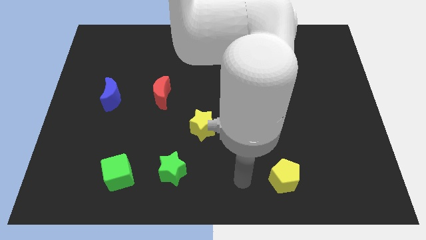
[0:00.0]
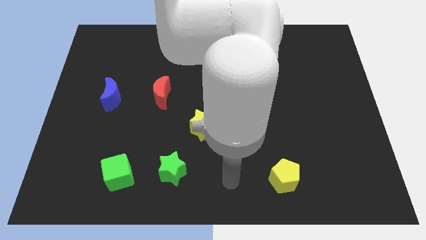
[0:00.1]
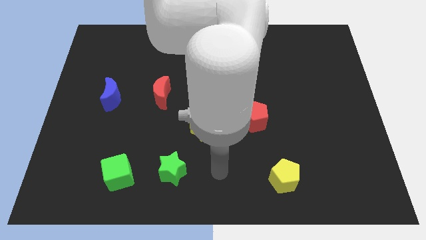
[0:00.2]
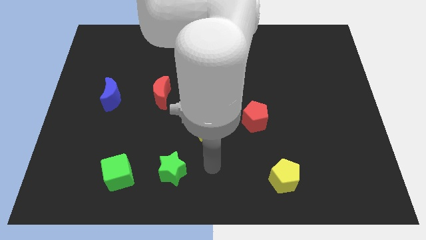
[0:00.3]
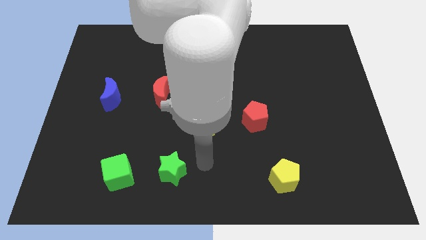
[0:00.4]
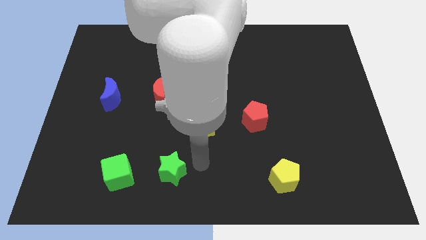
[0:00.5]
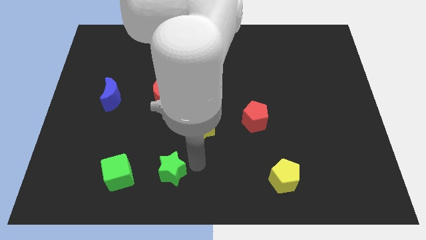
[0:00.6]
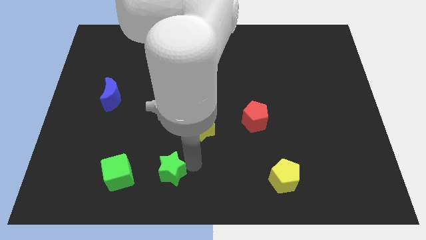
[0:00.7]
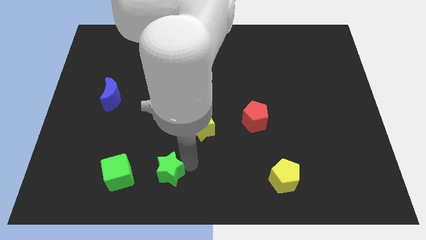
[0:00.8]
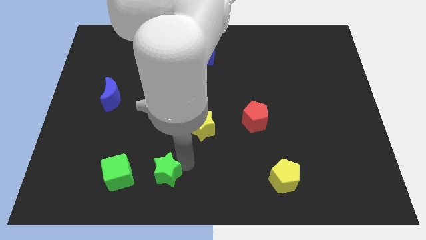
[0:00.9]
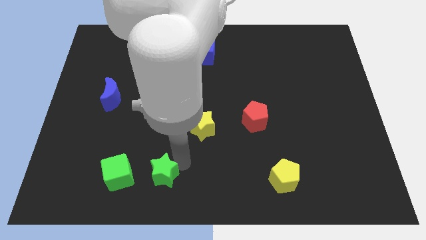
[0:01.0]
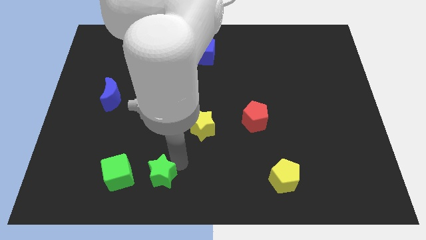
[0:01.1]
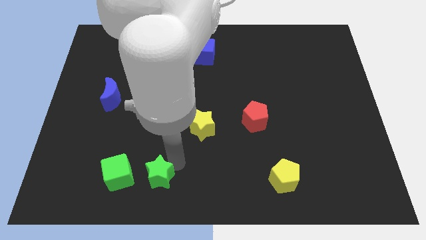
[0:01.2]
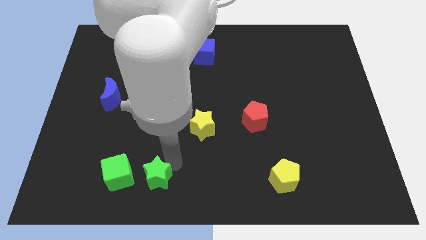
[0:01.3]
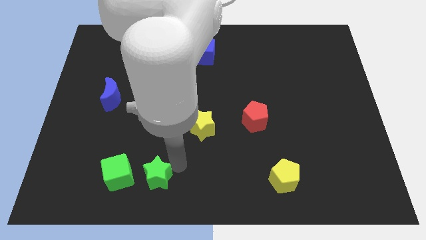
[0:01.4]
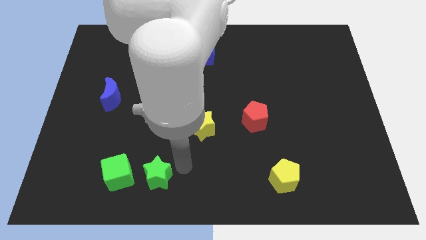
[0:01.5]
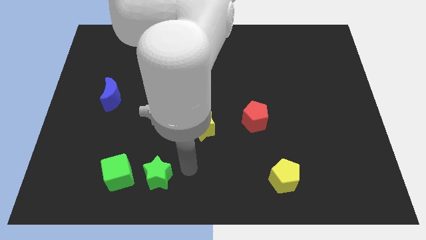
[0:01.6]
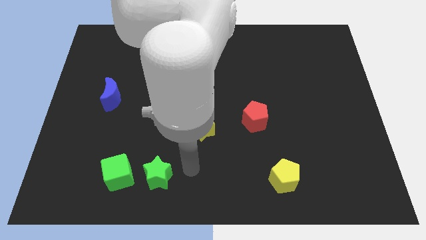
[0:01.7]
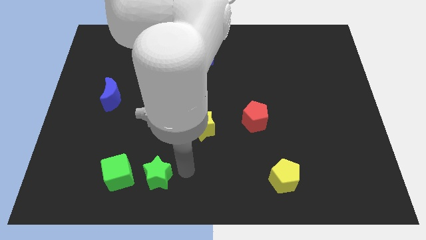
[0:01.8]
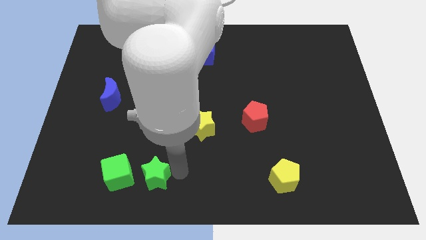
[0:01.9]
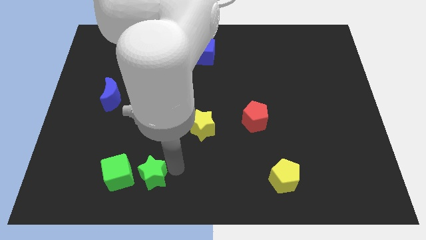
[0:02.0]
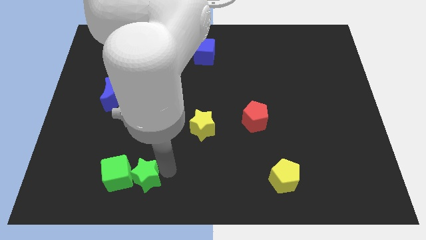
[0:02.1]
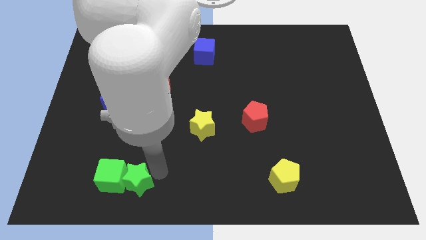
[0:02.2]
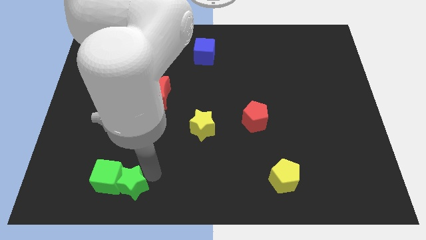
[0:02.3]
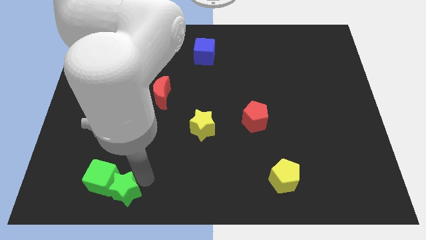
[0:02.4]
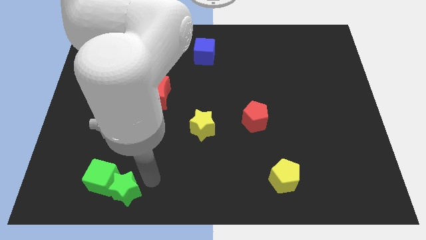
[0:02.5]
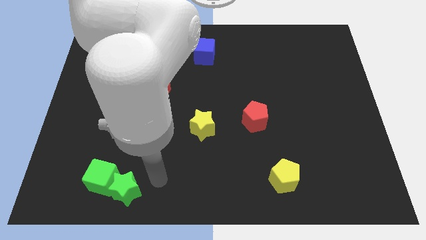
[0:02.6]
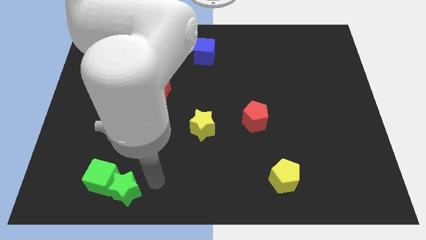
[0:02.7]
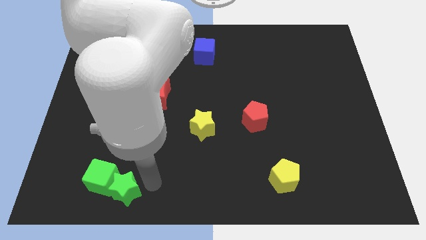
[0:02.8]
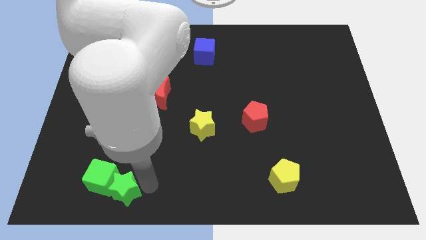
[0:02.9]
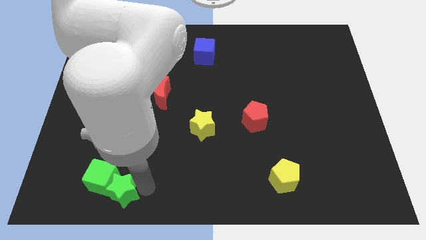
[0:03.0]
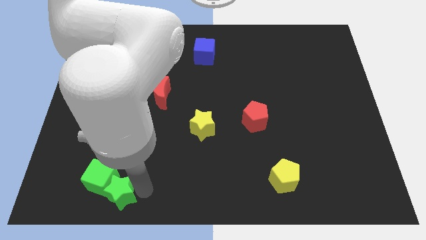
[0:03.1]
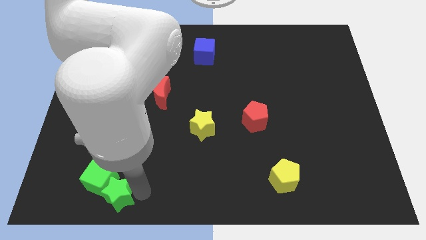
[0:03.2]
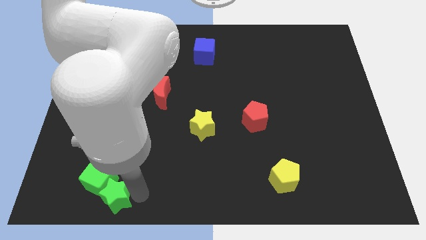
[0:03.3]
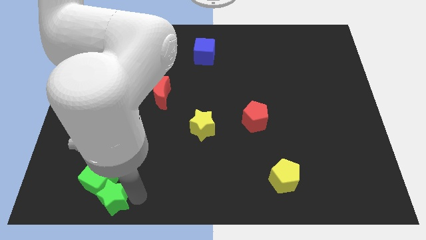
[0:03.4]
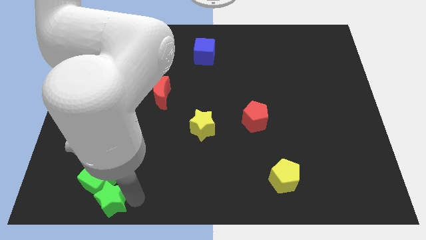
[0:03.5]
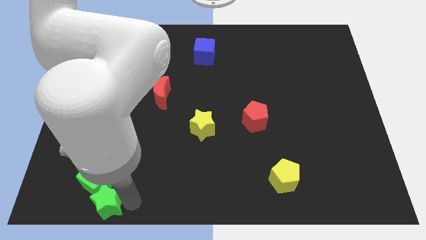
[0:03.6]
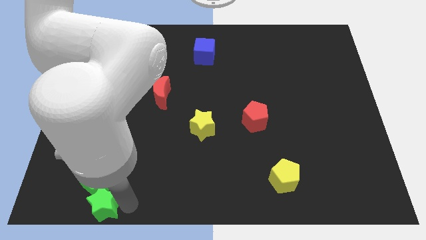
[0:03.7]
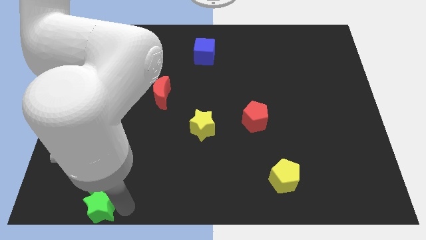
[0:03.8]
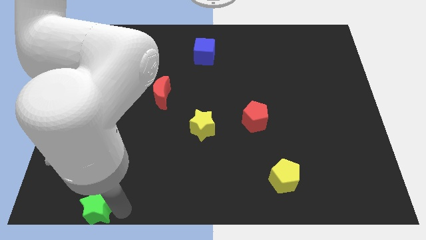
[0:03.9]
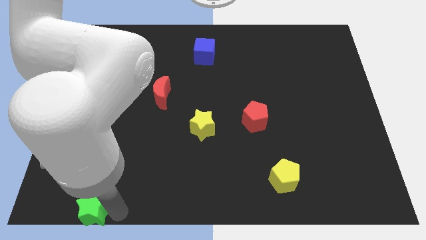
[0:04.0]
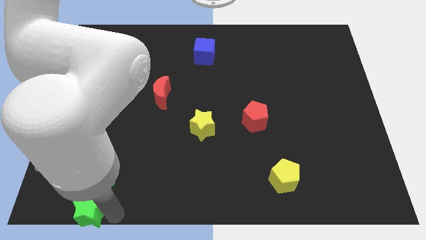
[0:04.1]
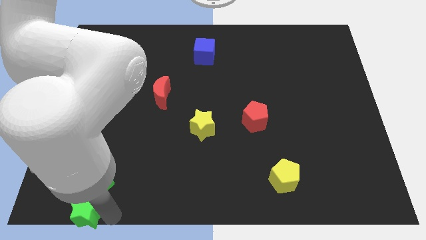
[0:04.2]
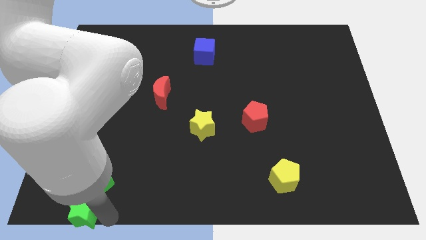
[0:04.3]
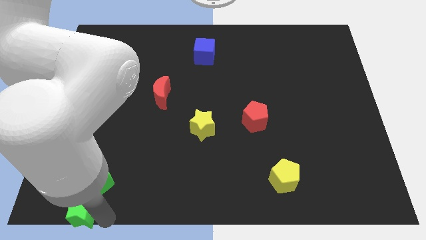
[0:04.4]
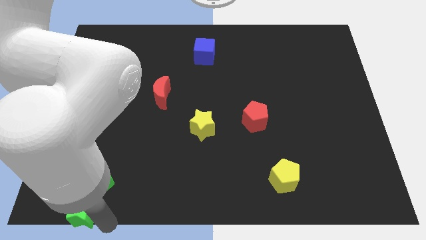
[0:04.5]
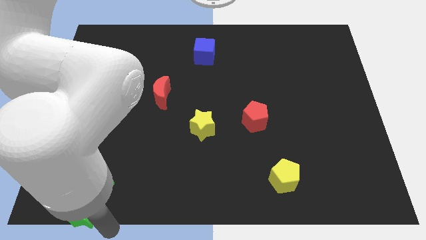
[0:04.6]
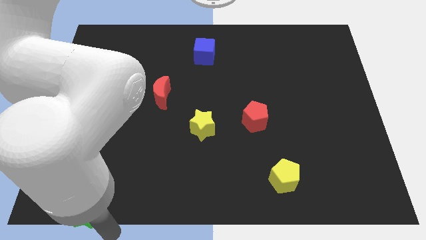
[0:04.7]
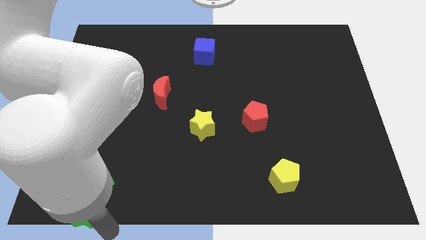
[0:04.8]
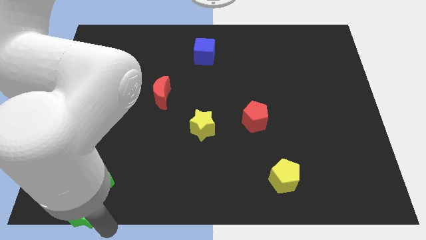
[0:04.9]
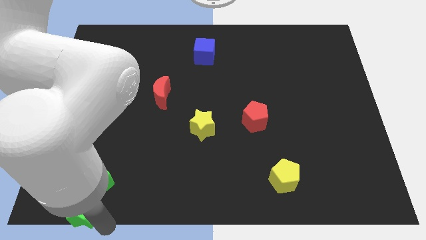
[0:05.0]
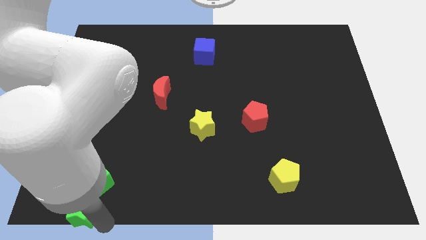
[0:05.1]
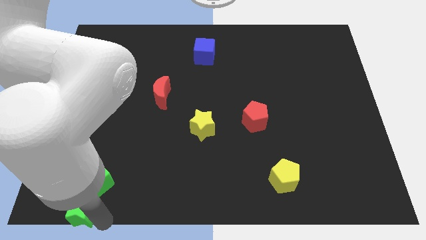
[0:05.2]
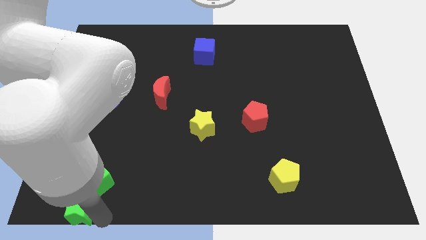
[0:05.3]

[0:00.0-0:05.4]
put the green star to the lower left corner

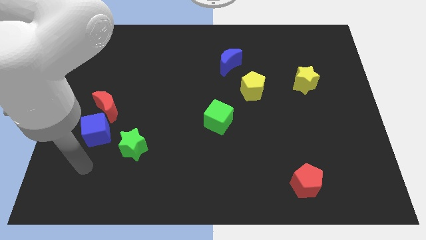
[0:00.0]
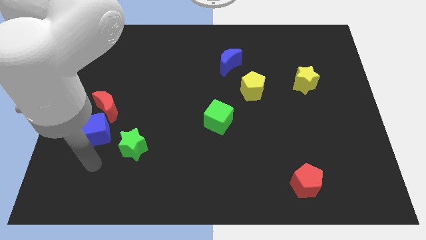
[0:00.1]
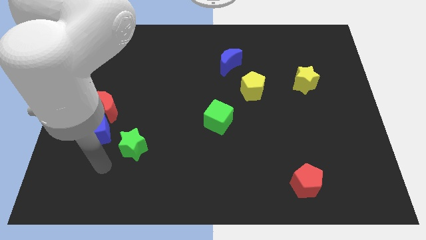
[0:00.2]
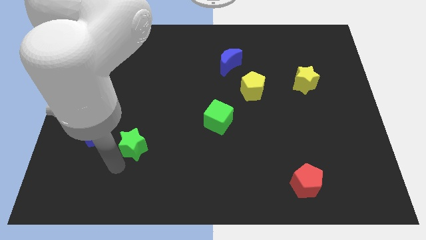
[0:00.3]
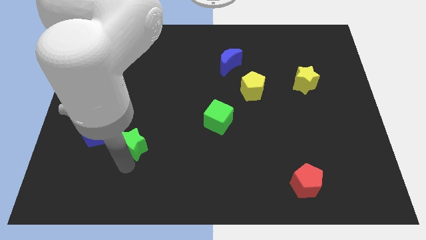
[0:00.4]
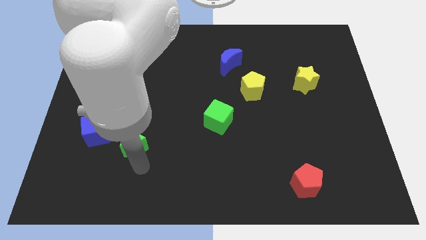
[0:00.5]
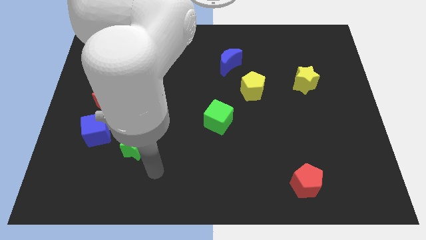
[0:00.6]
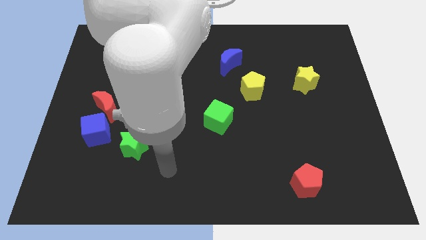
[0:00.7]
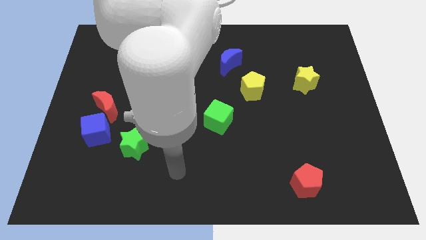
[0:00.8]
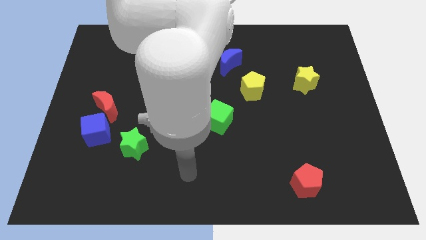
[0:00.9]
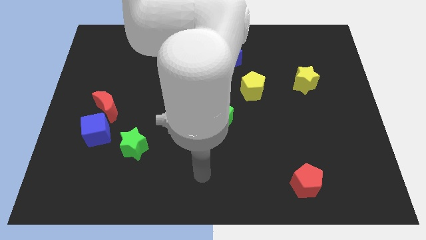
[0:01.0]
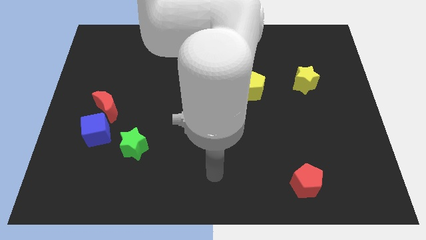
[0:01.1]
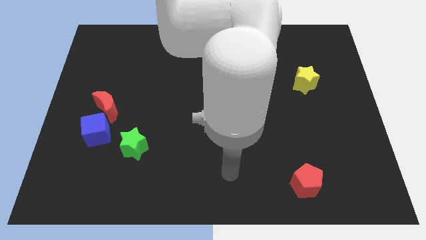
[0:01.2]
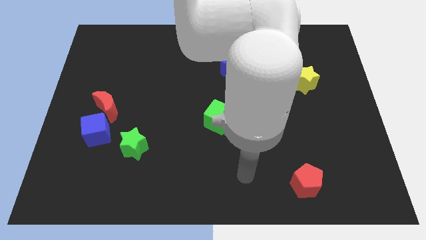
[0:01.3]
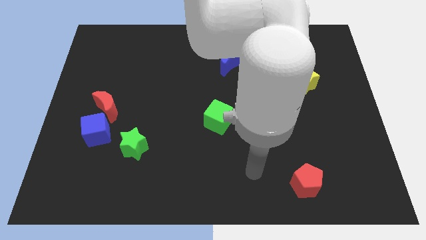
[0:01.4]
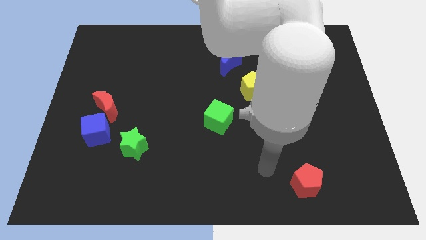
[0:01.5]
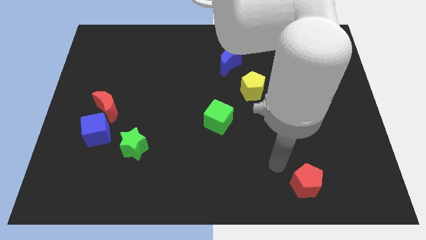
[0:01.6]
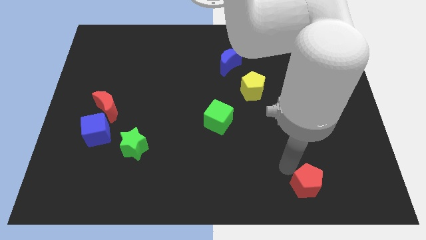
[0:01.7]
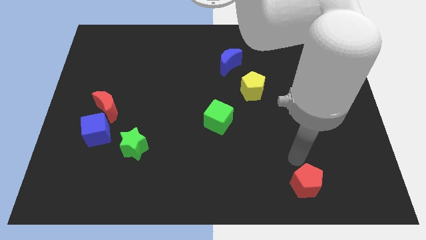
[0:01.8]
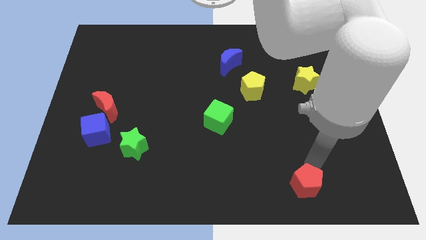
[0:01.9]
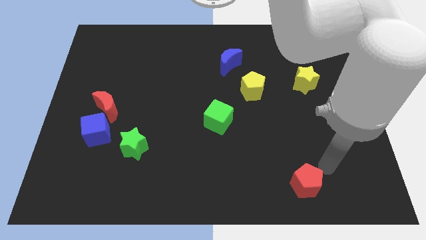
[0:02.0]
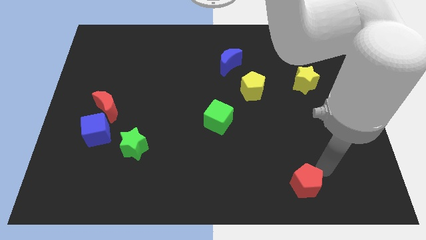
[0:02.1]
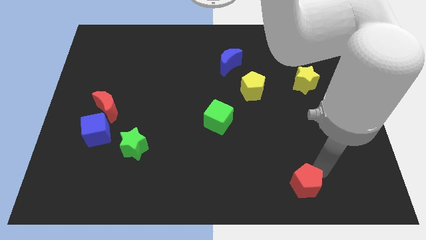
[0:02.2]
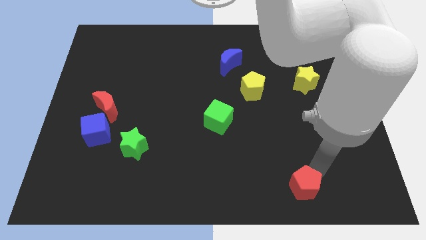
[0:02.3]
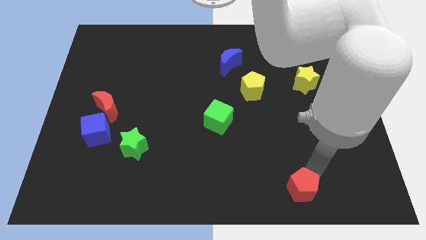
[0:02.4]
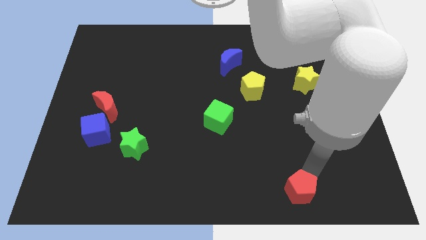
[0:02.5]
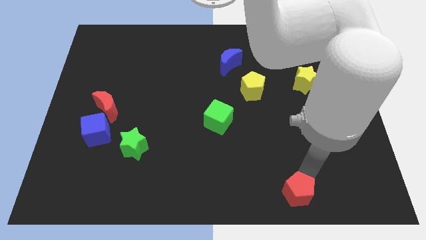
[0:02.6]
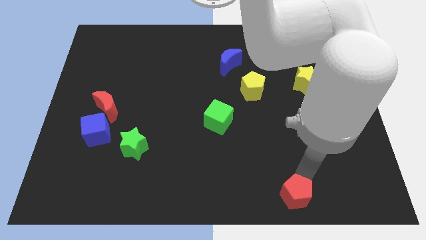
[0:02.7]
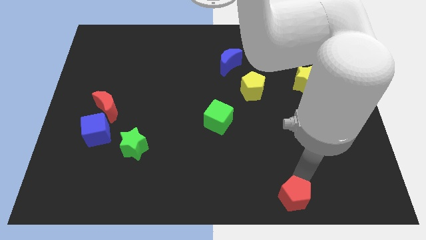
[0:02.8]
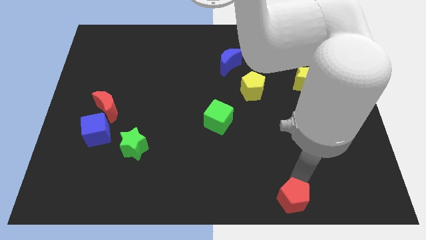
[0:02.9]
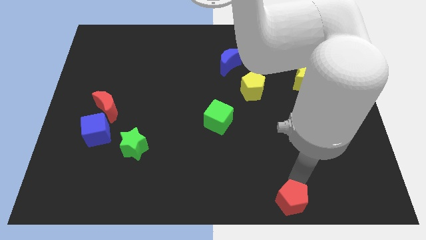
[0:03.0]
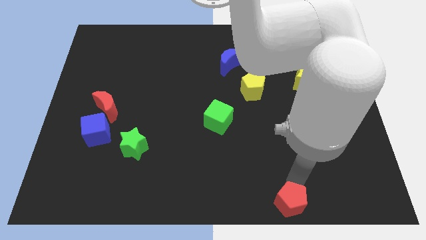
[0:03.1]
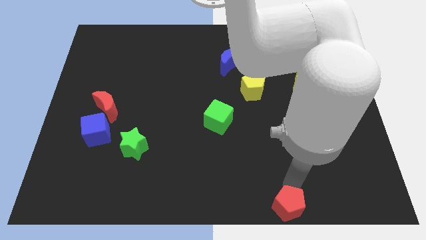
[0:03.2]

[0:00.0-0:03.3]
put the red pentagon to the bottom side
